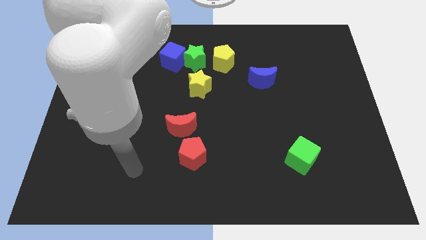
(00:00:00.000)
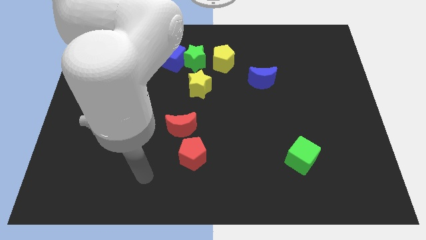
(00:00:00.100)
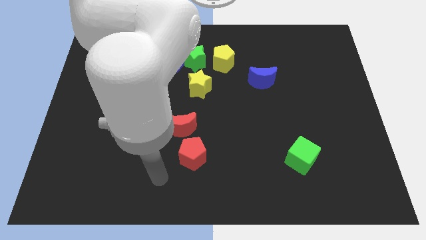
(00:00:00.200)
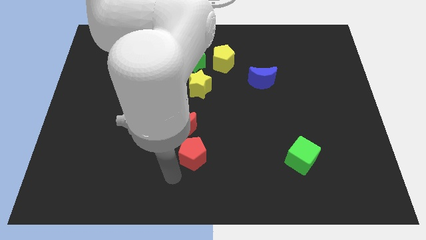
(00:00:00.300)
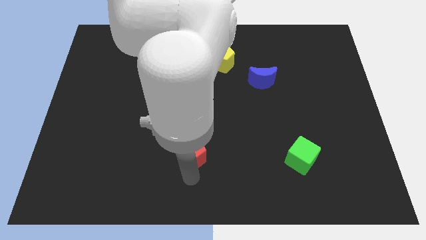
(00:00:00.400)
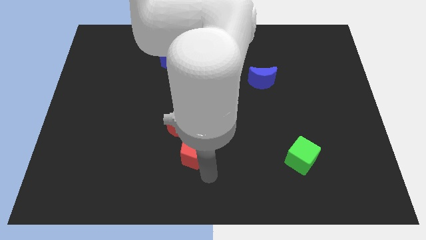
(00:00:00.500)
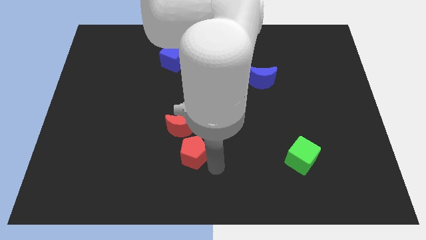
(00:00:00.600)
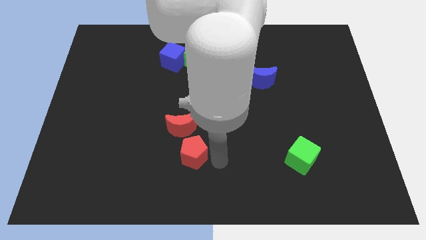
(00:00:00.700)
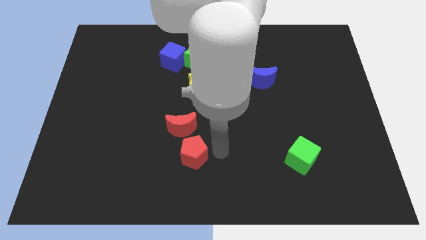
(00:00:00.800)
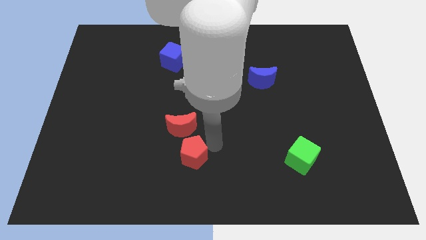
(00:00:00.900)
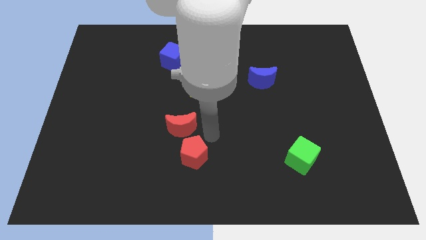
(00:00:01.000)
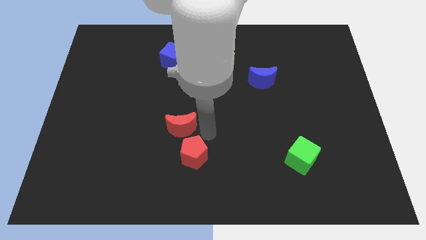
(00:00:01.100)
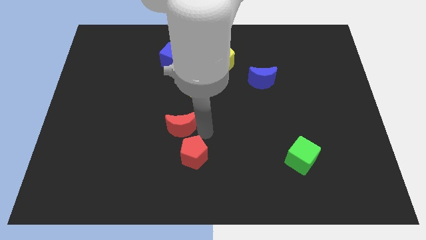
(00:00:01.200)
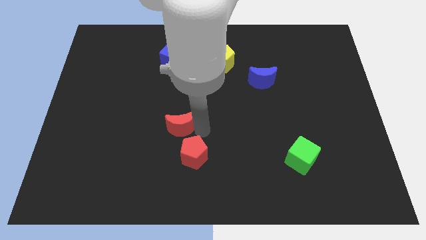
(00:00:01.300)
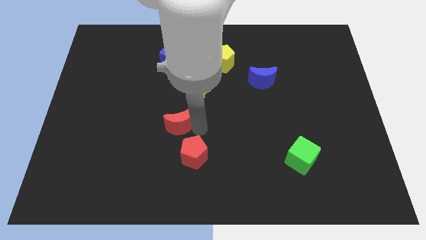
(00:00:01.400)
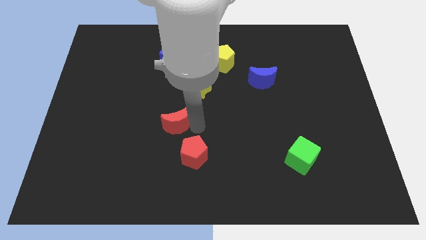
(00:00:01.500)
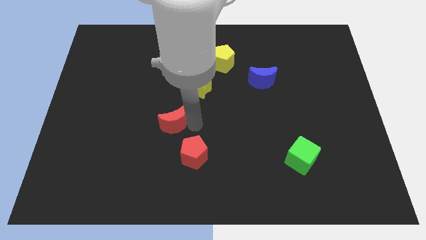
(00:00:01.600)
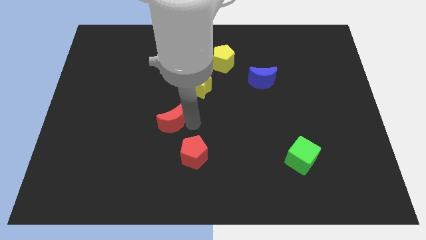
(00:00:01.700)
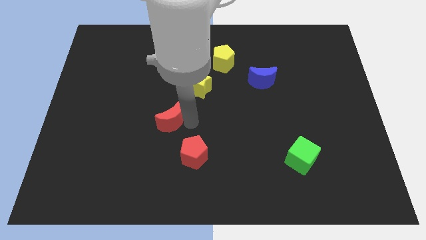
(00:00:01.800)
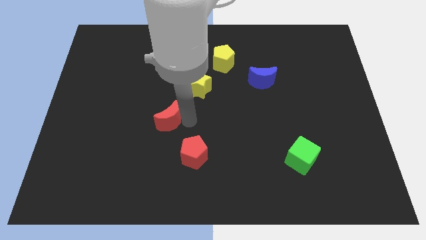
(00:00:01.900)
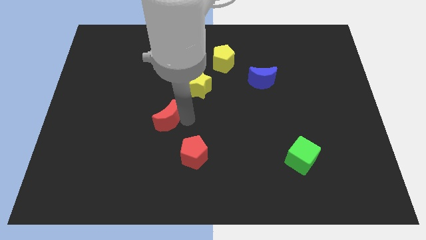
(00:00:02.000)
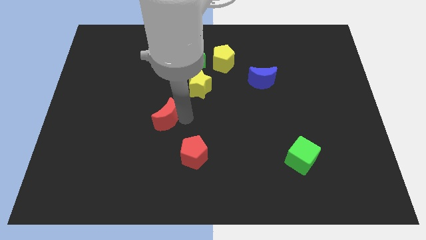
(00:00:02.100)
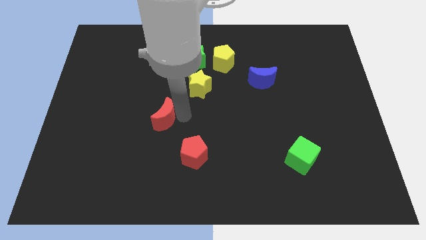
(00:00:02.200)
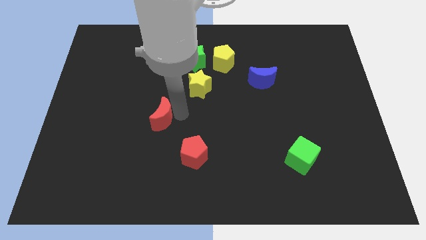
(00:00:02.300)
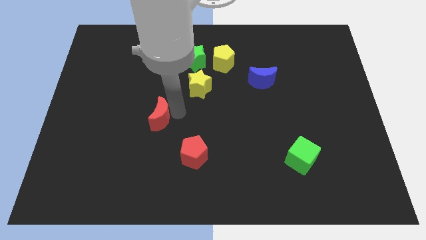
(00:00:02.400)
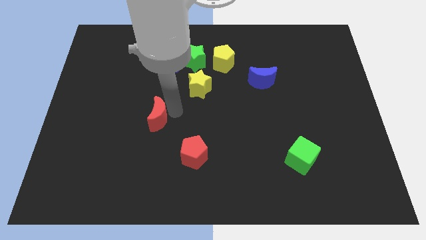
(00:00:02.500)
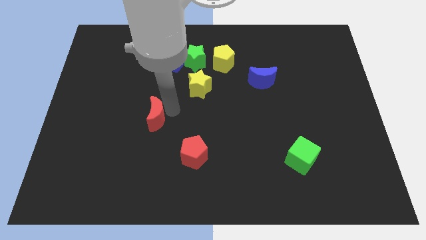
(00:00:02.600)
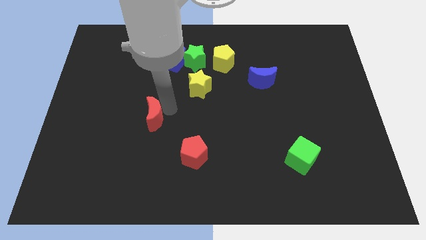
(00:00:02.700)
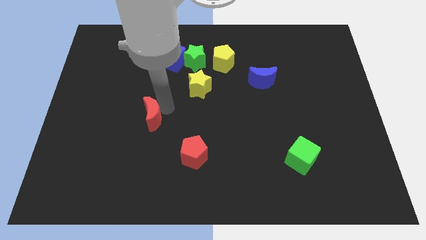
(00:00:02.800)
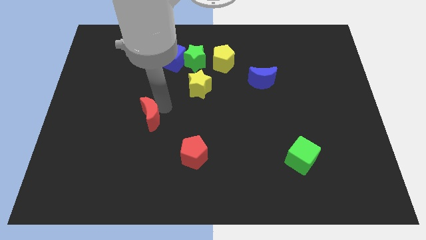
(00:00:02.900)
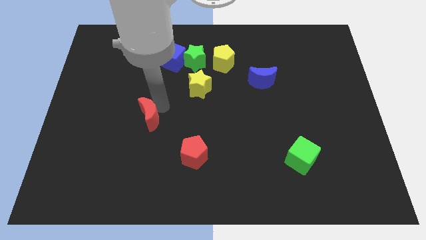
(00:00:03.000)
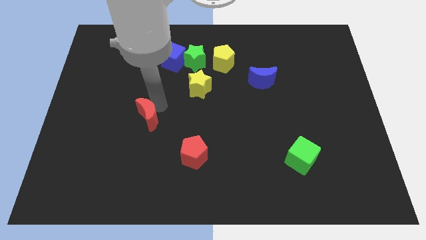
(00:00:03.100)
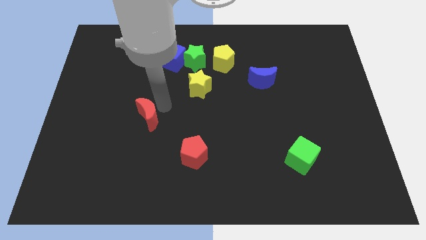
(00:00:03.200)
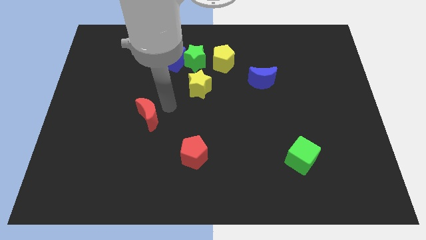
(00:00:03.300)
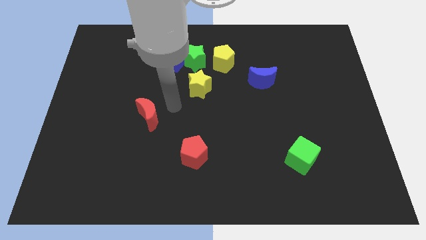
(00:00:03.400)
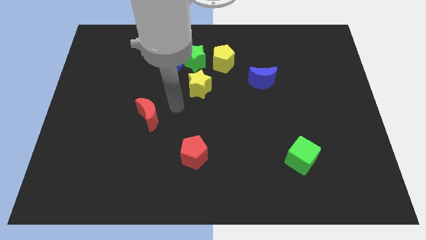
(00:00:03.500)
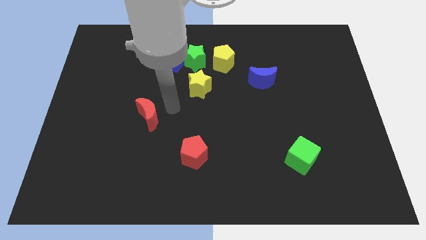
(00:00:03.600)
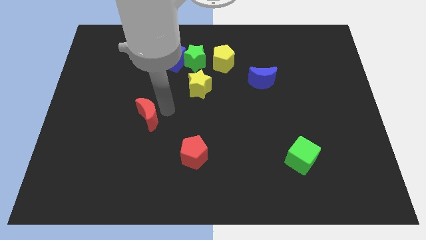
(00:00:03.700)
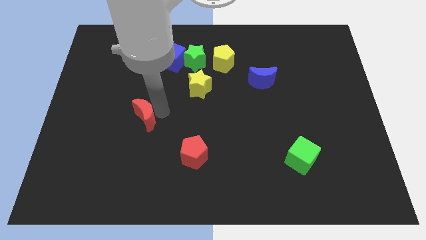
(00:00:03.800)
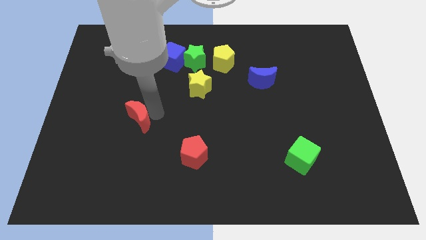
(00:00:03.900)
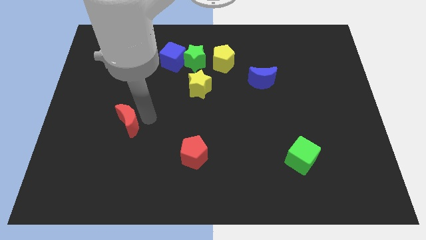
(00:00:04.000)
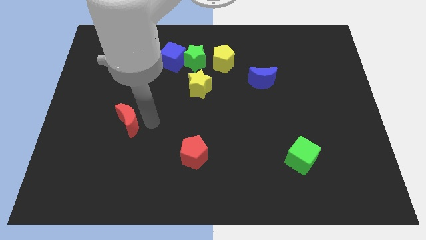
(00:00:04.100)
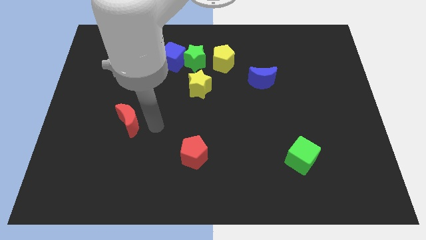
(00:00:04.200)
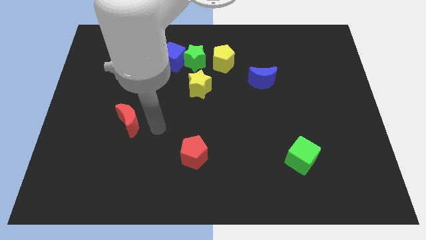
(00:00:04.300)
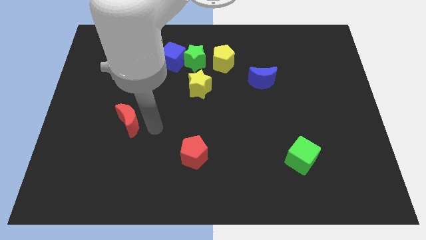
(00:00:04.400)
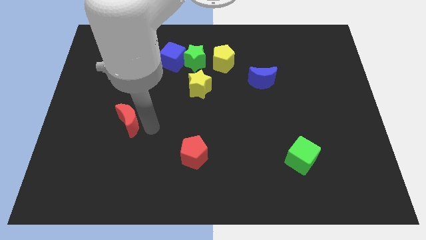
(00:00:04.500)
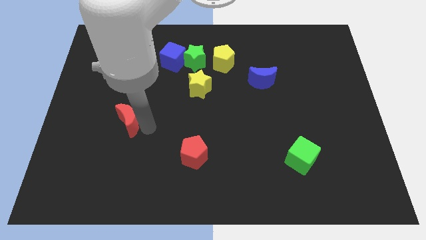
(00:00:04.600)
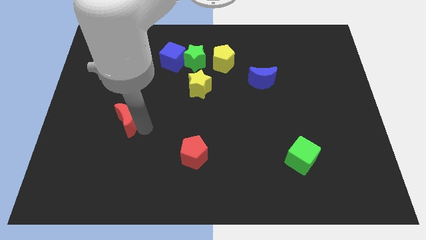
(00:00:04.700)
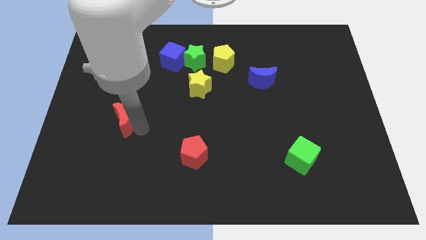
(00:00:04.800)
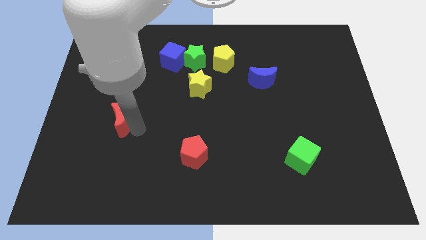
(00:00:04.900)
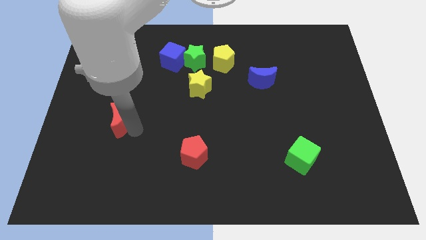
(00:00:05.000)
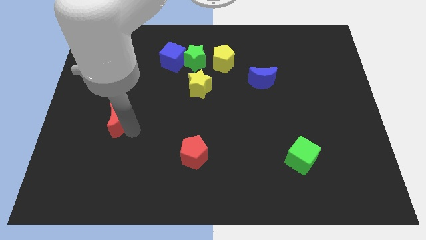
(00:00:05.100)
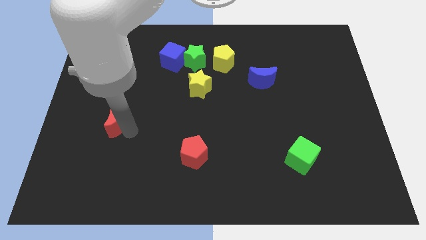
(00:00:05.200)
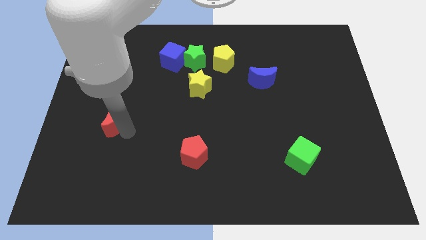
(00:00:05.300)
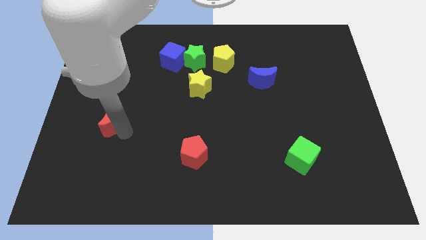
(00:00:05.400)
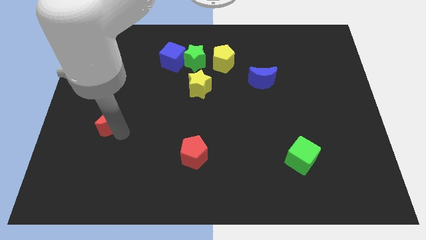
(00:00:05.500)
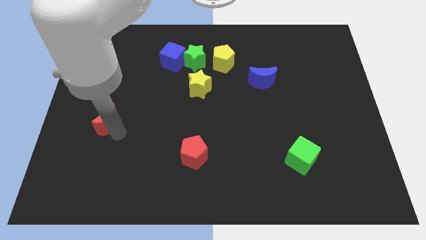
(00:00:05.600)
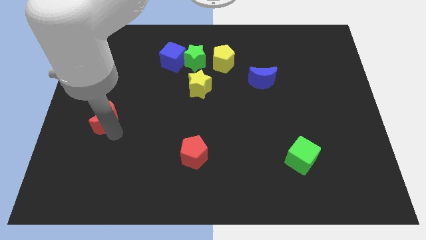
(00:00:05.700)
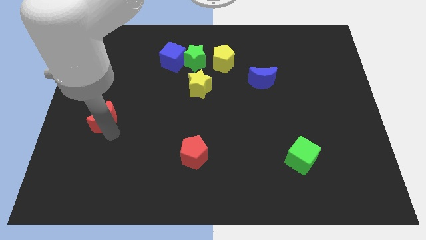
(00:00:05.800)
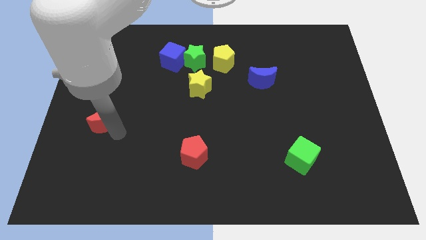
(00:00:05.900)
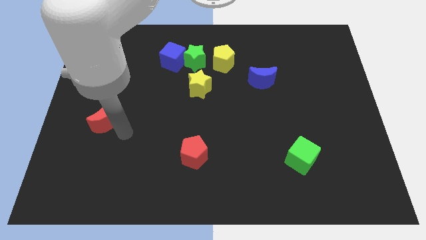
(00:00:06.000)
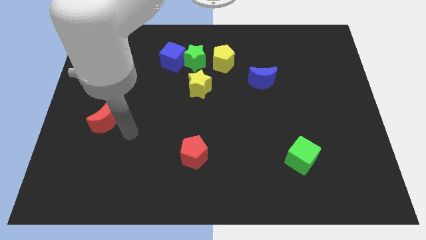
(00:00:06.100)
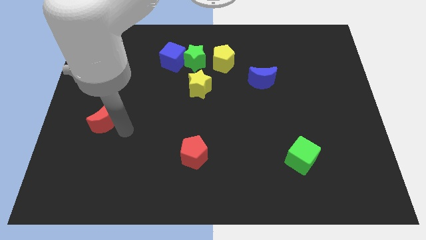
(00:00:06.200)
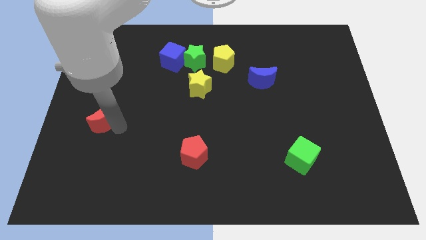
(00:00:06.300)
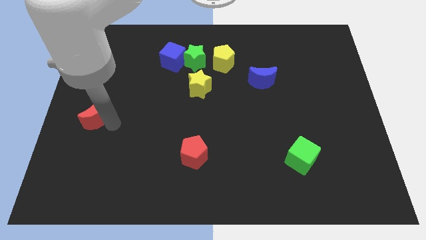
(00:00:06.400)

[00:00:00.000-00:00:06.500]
slide the red moon to the left side

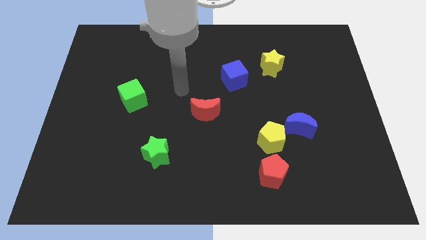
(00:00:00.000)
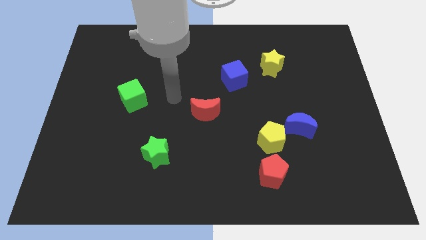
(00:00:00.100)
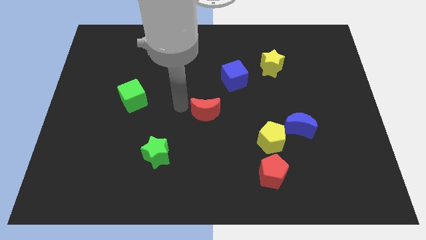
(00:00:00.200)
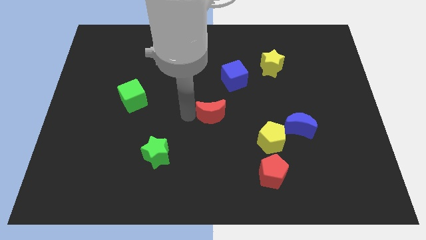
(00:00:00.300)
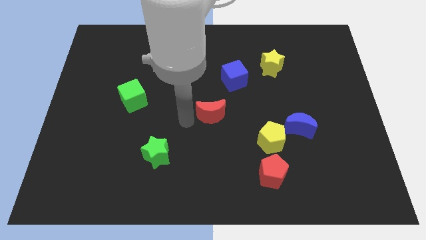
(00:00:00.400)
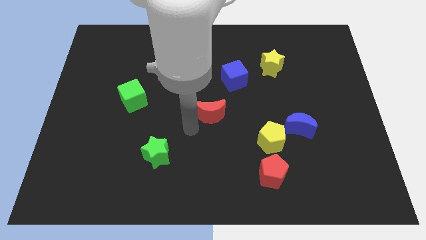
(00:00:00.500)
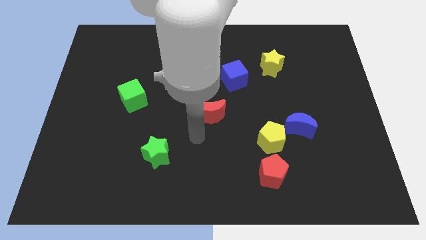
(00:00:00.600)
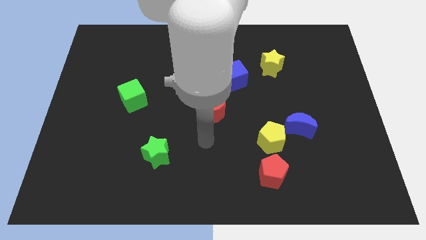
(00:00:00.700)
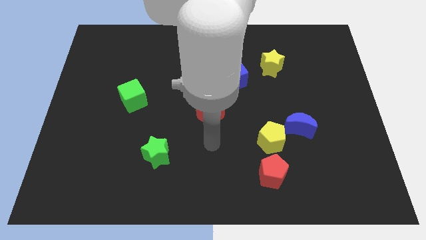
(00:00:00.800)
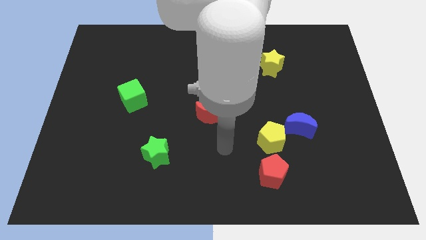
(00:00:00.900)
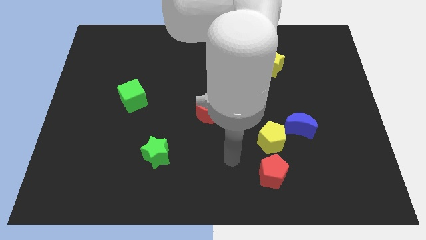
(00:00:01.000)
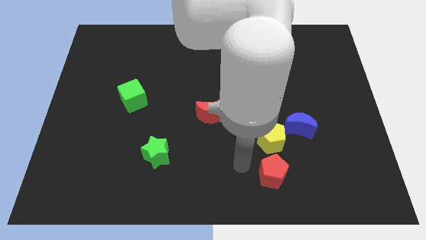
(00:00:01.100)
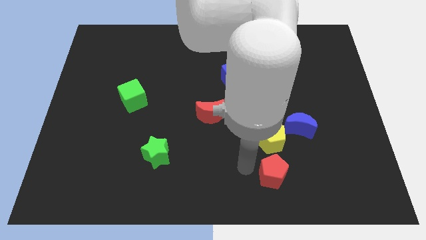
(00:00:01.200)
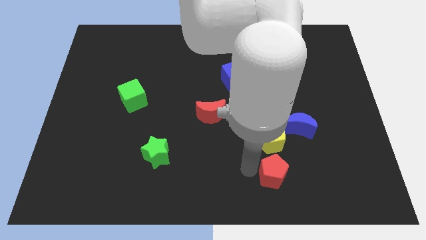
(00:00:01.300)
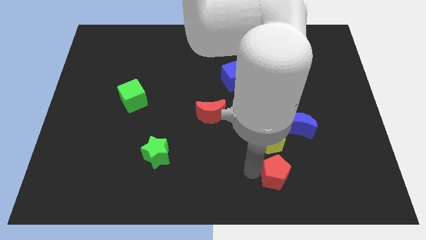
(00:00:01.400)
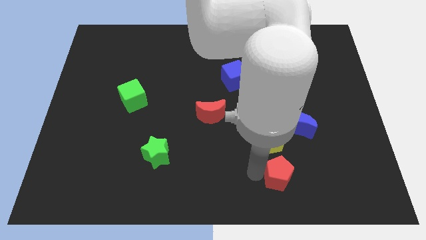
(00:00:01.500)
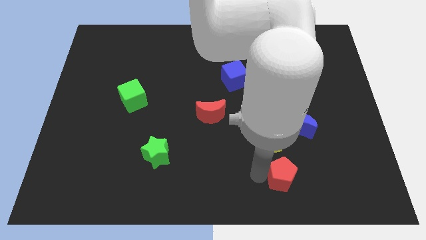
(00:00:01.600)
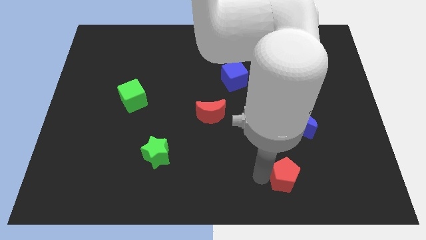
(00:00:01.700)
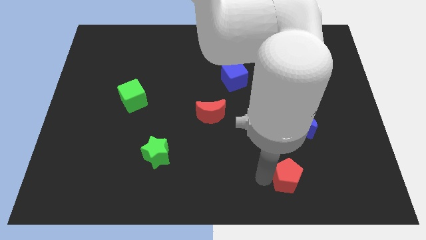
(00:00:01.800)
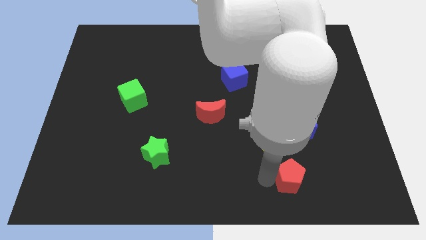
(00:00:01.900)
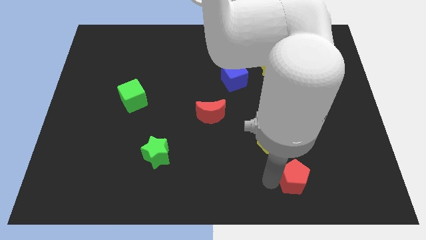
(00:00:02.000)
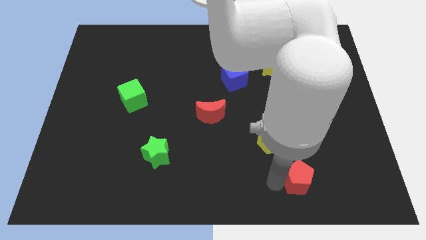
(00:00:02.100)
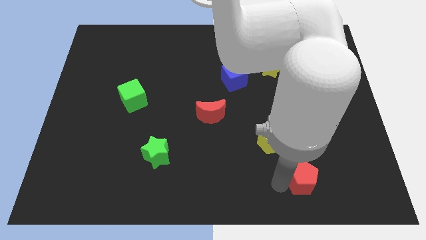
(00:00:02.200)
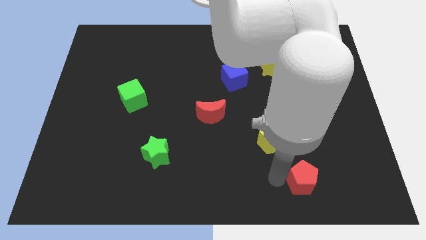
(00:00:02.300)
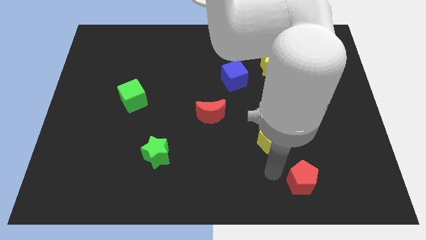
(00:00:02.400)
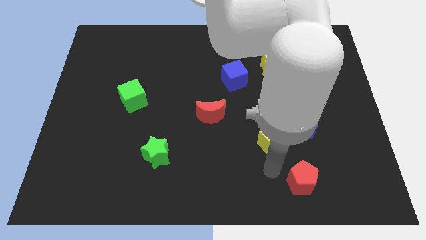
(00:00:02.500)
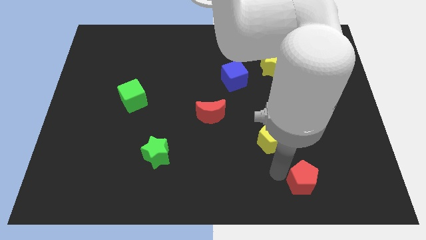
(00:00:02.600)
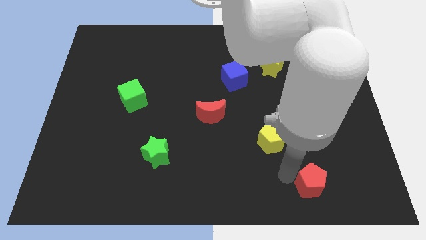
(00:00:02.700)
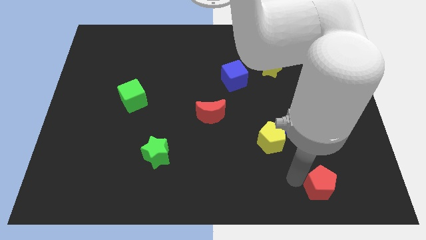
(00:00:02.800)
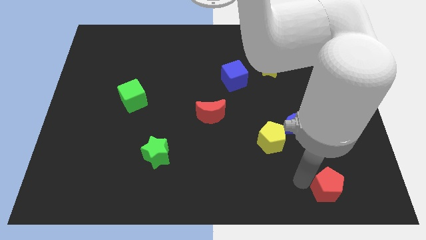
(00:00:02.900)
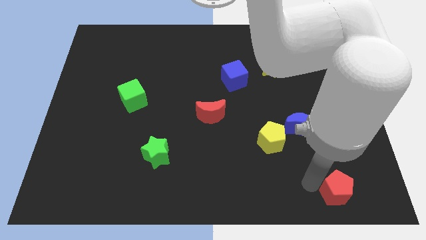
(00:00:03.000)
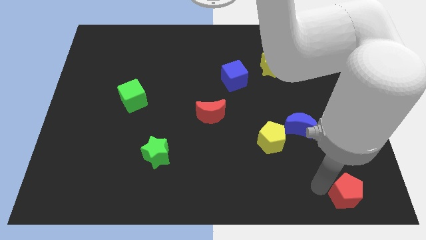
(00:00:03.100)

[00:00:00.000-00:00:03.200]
push the red pentagon to the bottom right corner
